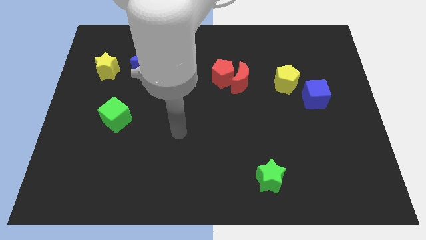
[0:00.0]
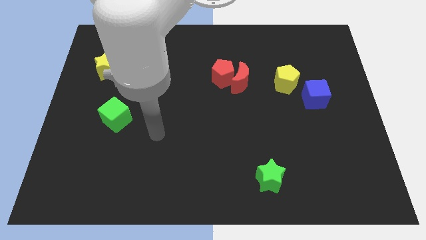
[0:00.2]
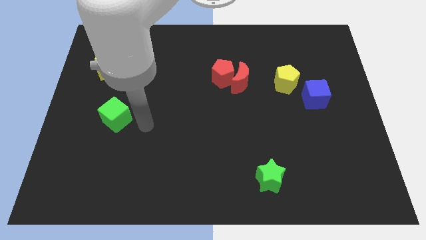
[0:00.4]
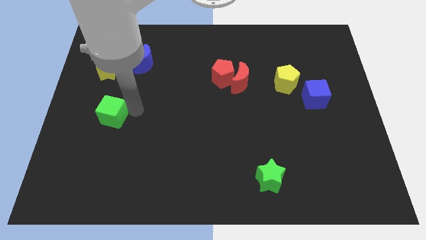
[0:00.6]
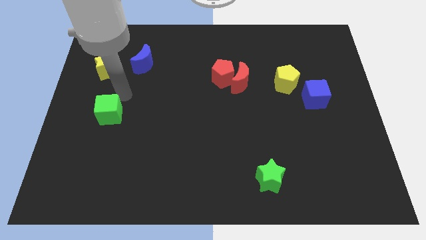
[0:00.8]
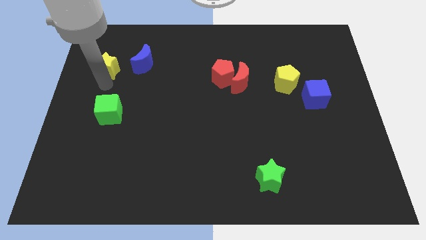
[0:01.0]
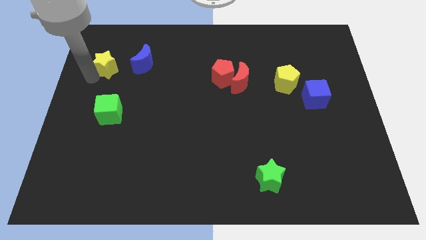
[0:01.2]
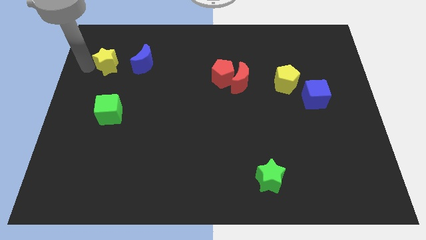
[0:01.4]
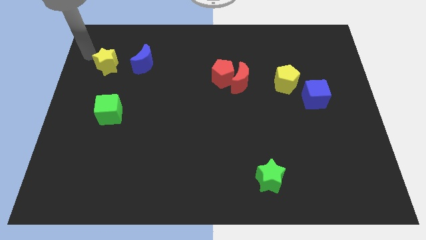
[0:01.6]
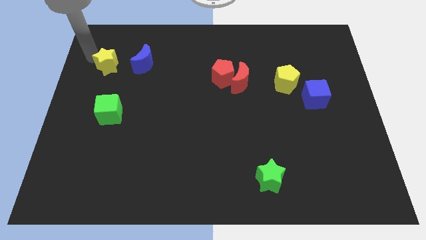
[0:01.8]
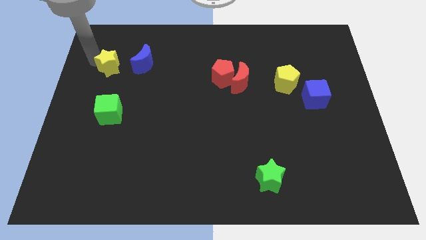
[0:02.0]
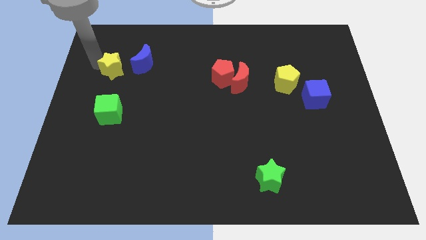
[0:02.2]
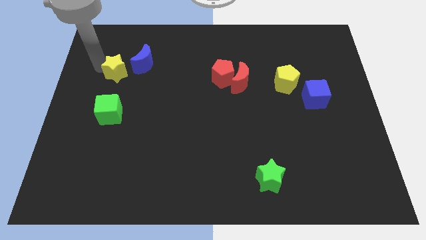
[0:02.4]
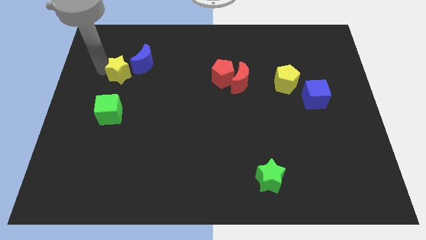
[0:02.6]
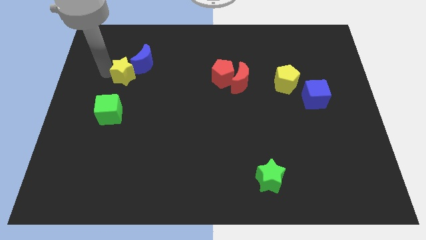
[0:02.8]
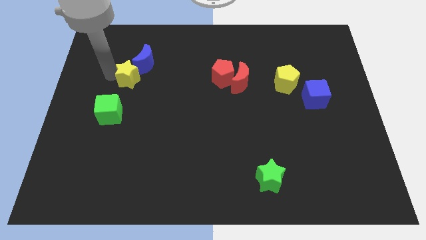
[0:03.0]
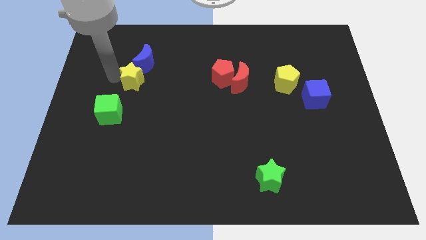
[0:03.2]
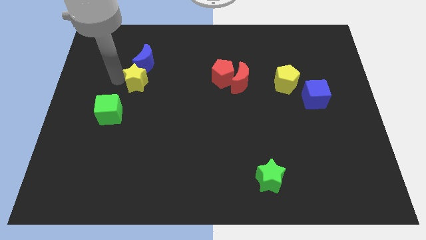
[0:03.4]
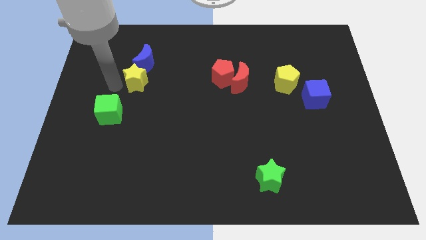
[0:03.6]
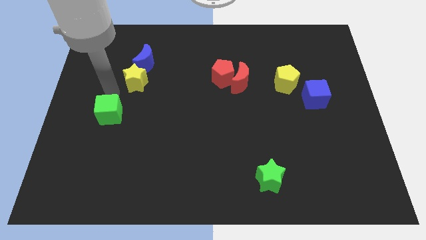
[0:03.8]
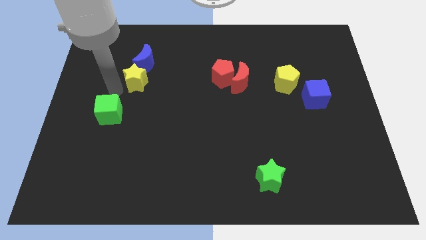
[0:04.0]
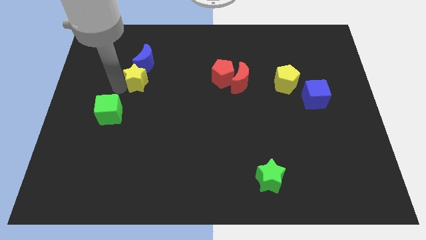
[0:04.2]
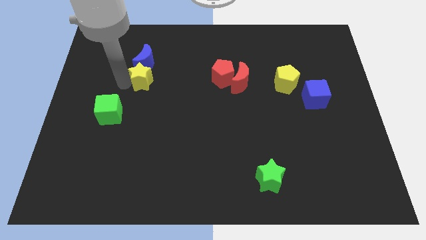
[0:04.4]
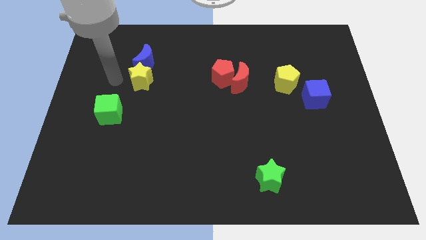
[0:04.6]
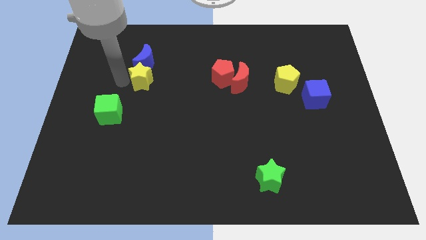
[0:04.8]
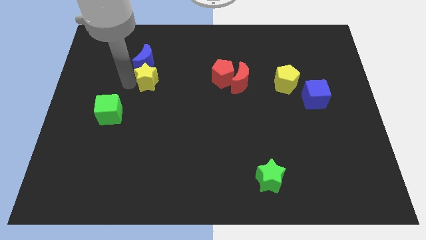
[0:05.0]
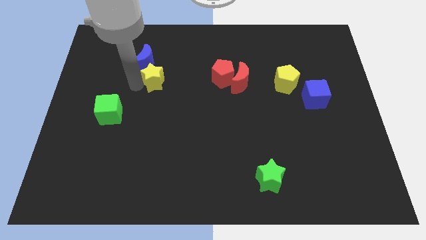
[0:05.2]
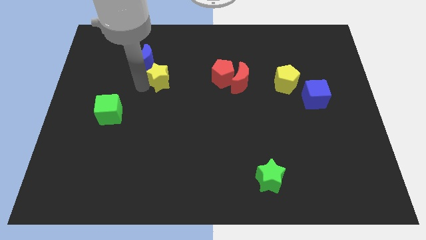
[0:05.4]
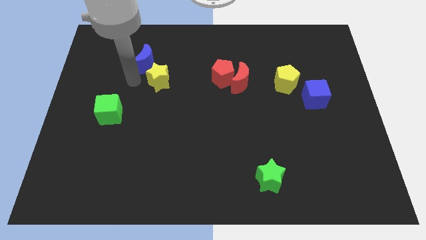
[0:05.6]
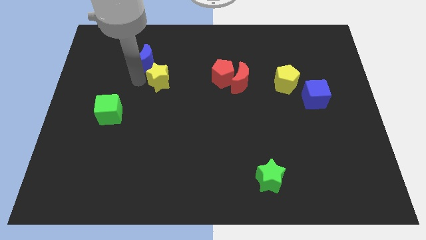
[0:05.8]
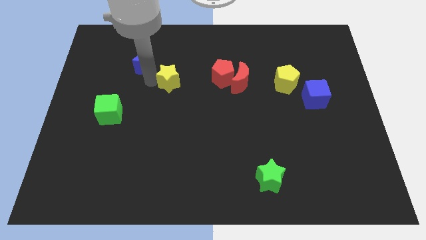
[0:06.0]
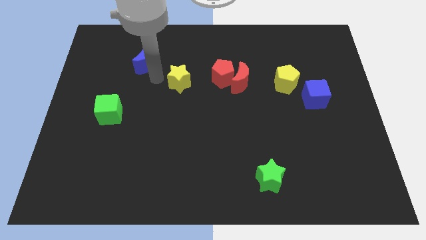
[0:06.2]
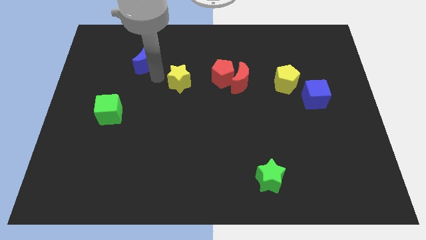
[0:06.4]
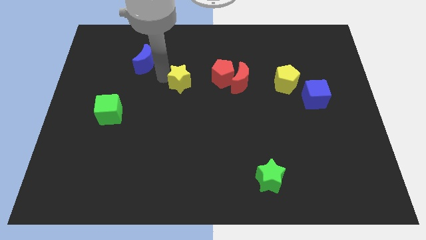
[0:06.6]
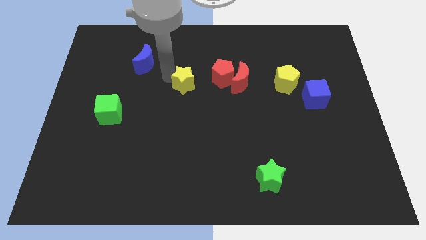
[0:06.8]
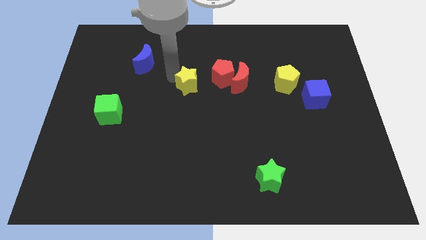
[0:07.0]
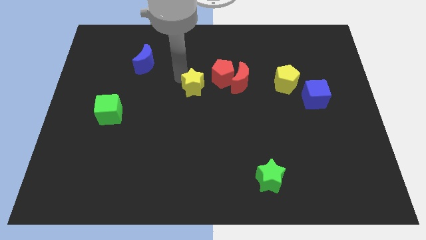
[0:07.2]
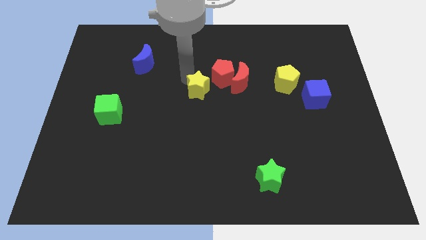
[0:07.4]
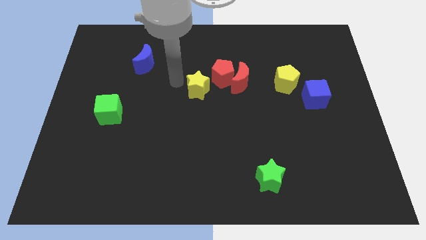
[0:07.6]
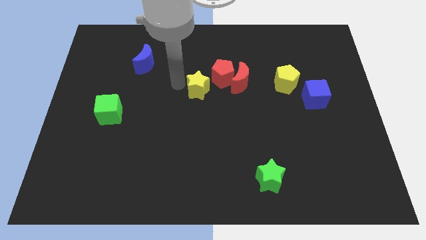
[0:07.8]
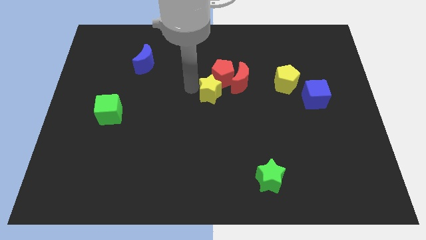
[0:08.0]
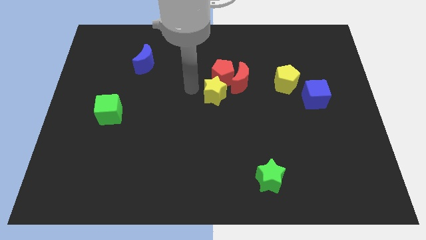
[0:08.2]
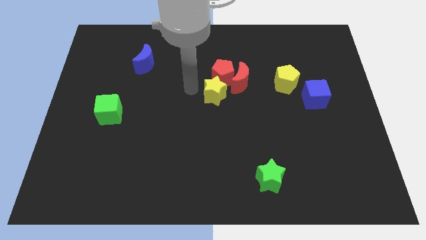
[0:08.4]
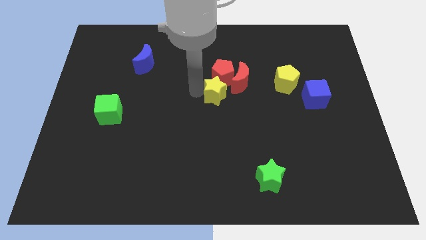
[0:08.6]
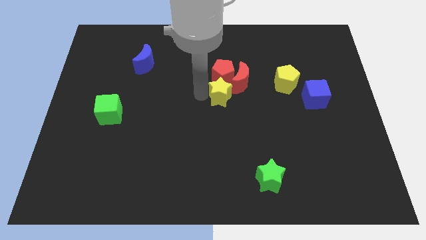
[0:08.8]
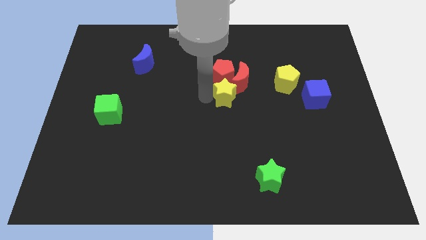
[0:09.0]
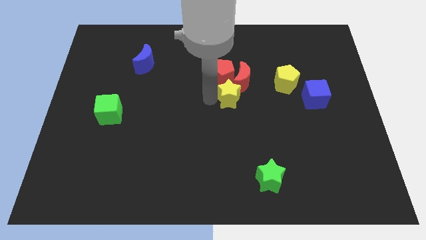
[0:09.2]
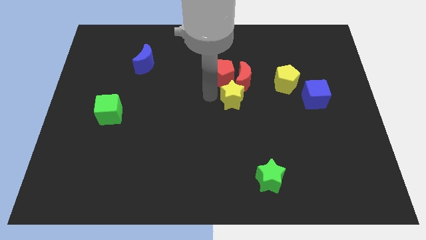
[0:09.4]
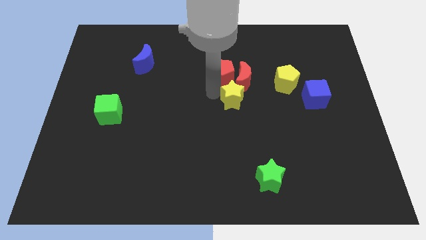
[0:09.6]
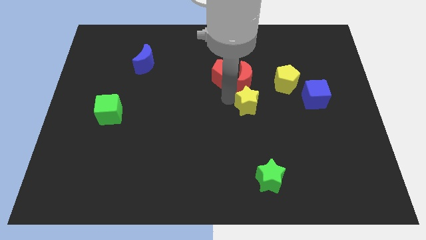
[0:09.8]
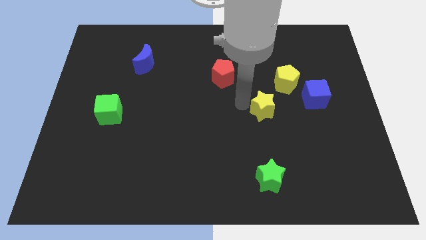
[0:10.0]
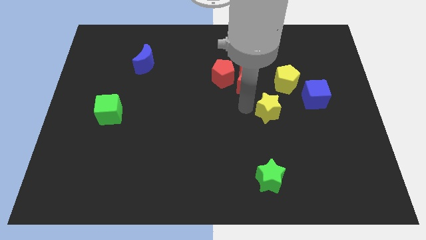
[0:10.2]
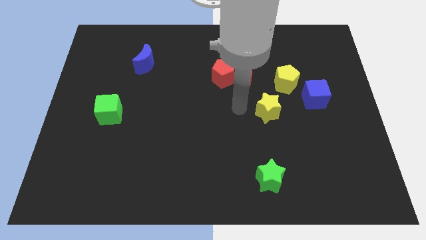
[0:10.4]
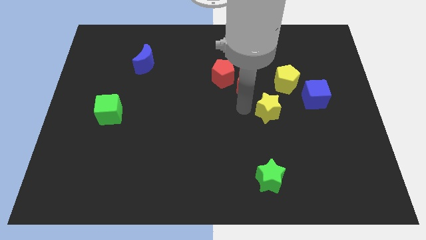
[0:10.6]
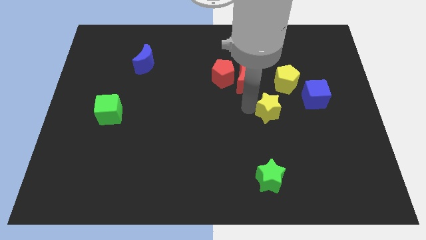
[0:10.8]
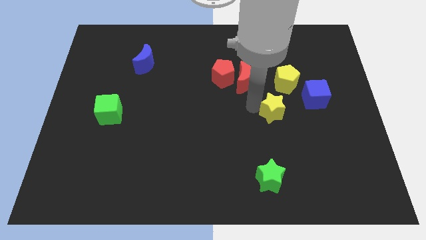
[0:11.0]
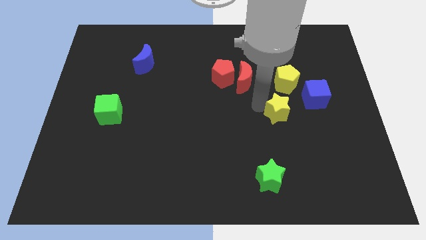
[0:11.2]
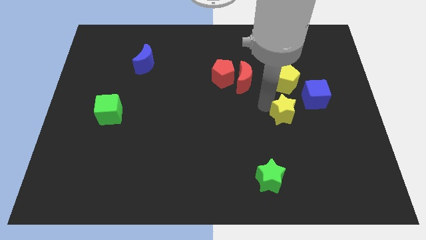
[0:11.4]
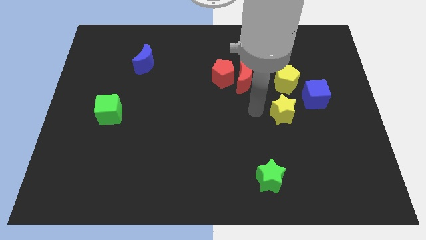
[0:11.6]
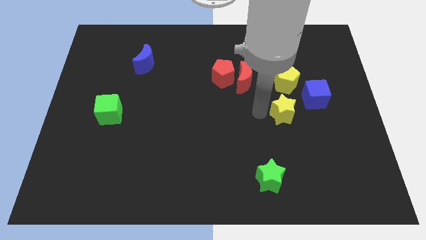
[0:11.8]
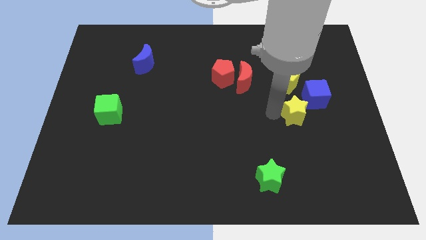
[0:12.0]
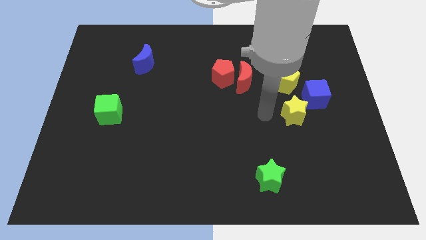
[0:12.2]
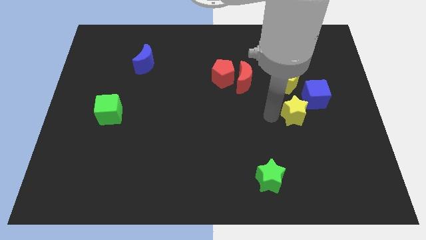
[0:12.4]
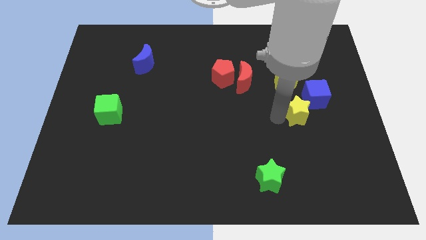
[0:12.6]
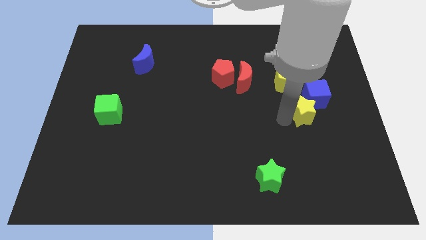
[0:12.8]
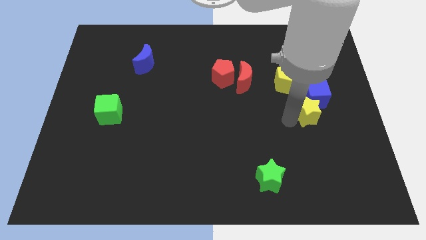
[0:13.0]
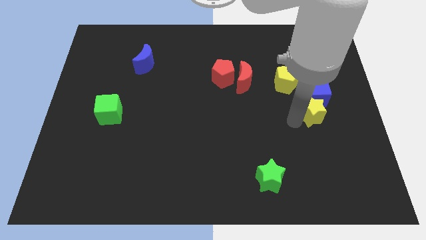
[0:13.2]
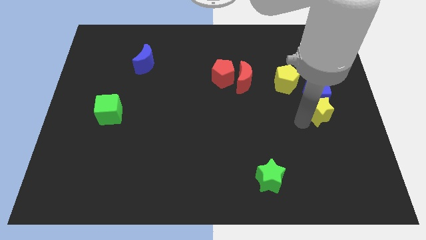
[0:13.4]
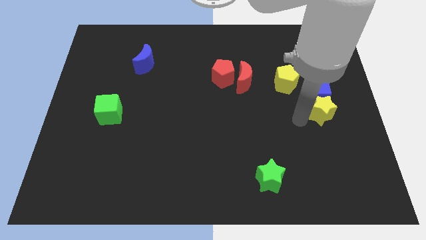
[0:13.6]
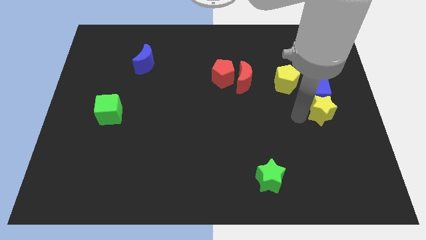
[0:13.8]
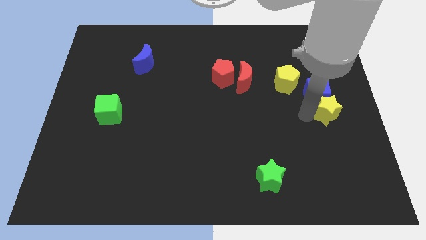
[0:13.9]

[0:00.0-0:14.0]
slide the yellow star to the center right
